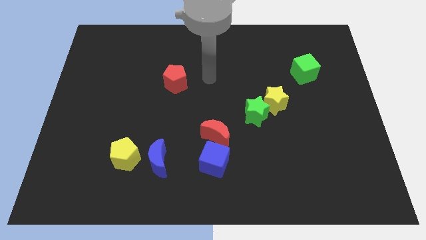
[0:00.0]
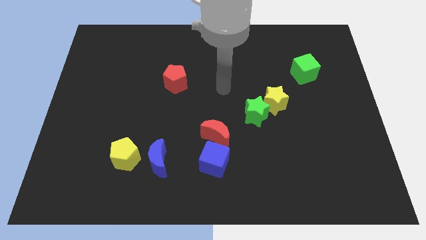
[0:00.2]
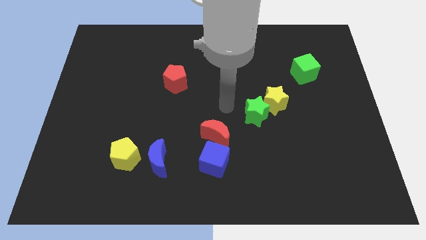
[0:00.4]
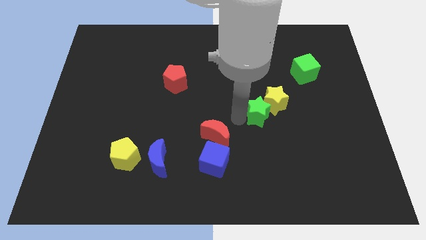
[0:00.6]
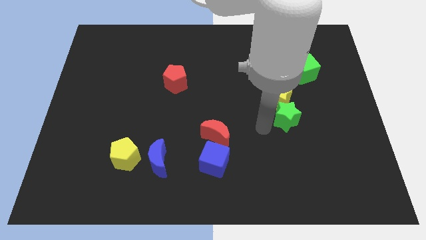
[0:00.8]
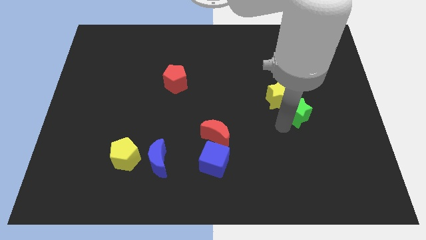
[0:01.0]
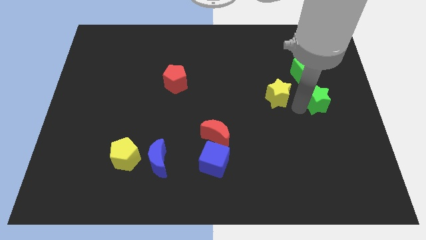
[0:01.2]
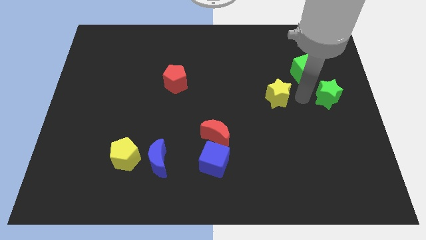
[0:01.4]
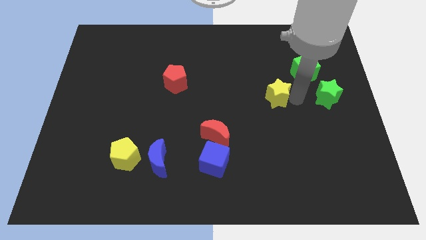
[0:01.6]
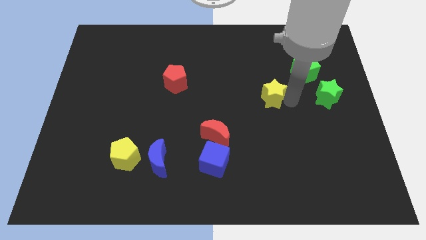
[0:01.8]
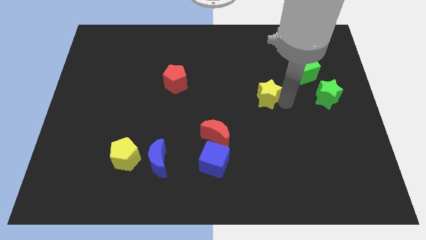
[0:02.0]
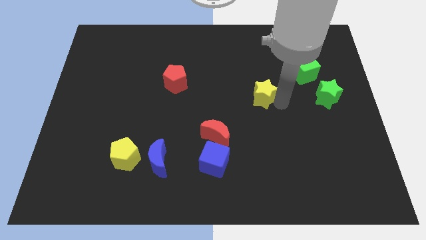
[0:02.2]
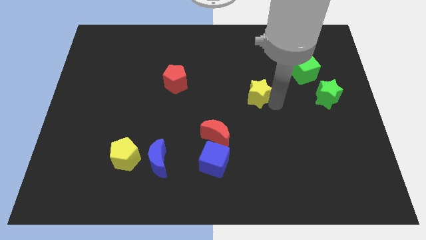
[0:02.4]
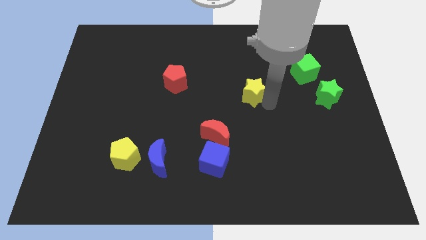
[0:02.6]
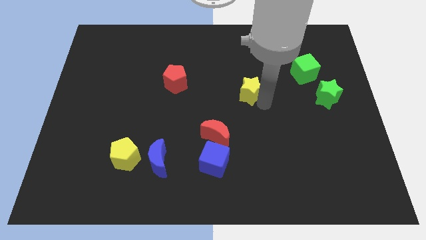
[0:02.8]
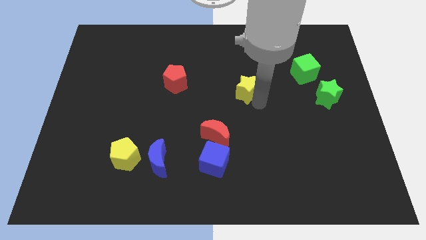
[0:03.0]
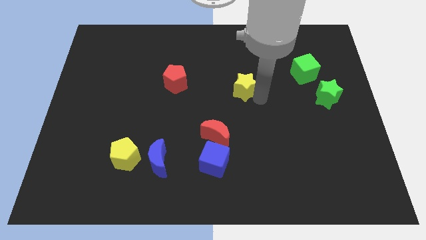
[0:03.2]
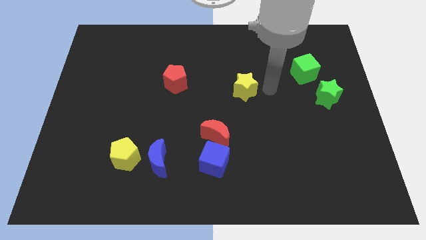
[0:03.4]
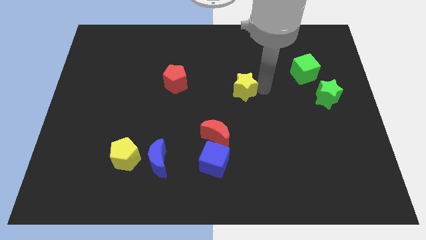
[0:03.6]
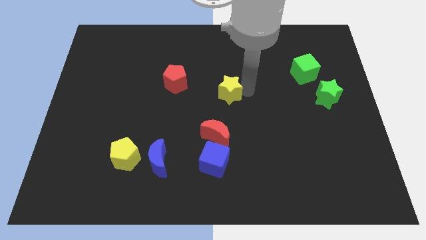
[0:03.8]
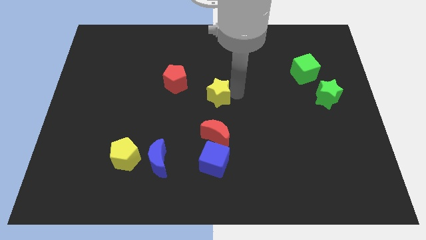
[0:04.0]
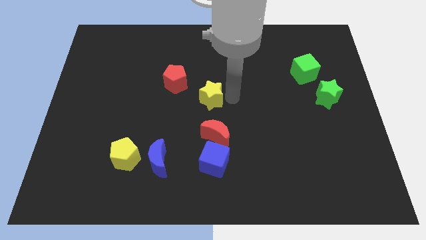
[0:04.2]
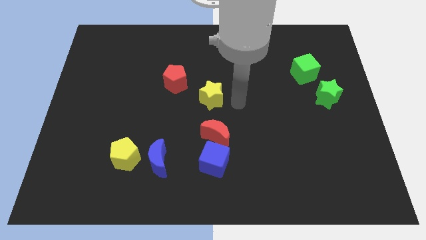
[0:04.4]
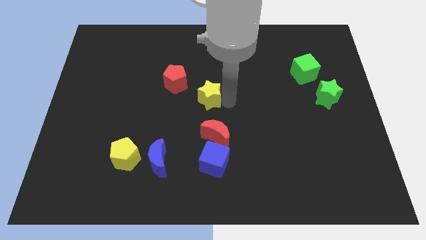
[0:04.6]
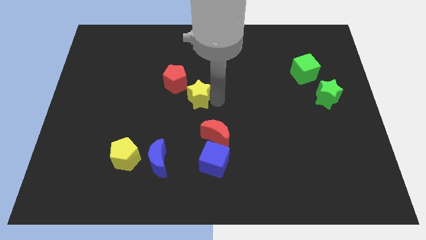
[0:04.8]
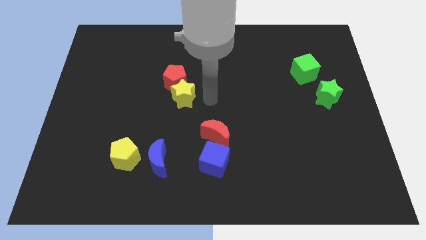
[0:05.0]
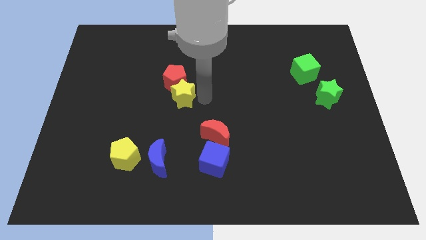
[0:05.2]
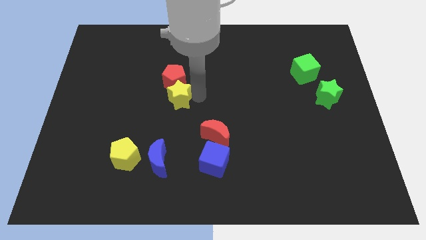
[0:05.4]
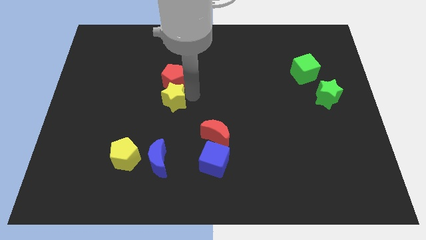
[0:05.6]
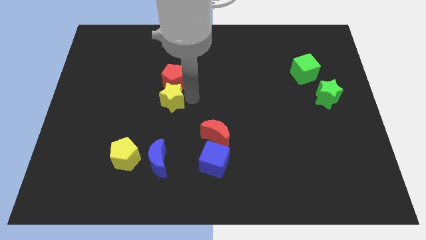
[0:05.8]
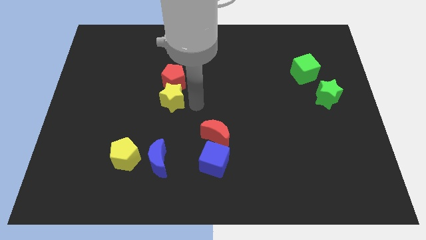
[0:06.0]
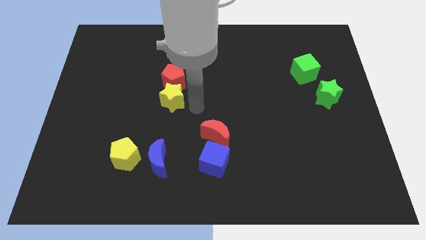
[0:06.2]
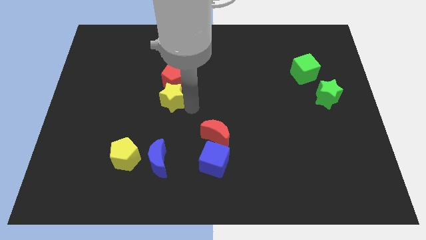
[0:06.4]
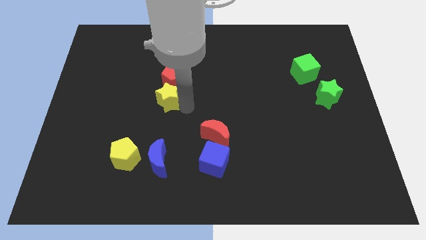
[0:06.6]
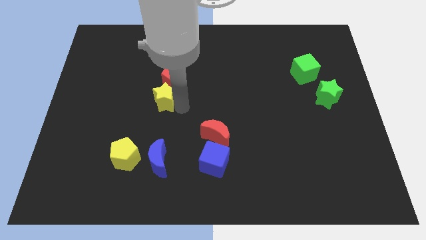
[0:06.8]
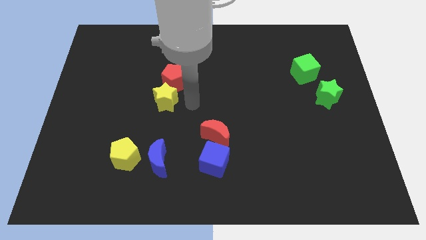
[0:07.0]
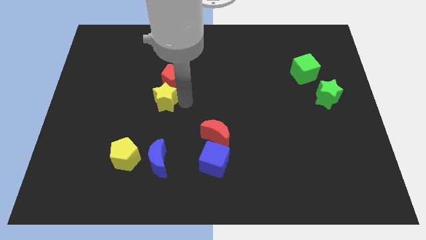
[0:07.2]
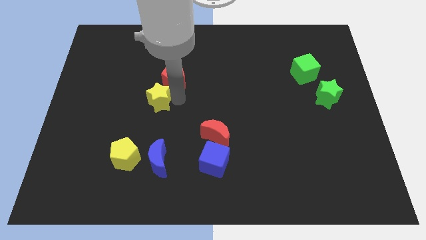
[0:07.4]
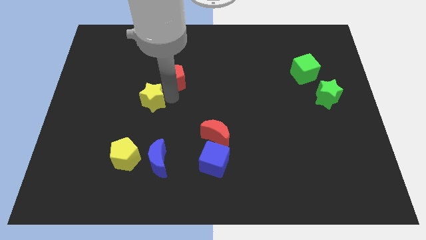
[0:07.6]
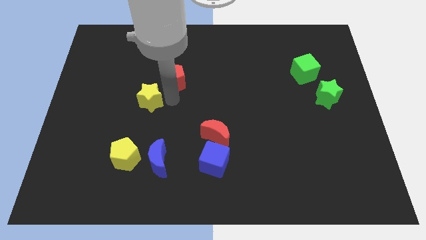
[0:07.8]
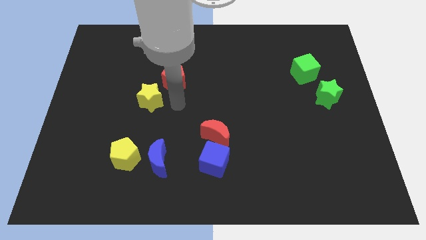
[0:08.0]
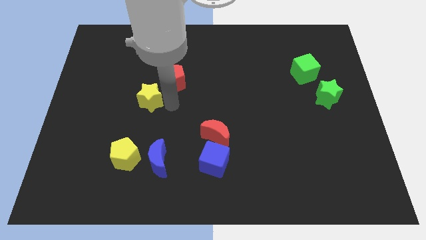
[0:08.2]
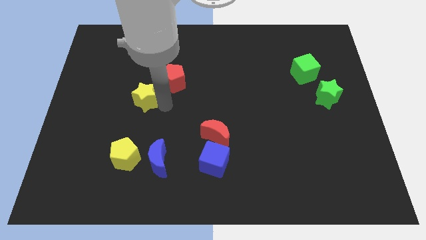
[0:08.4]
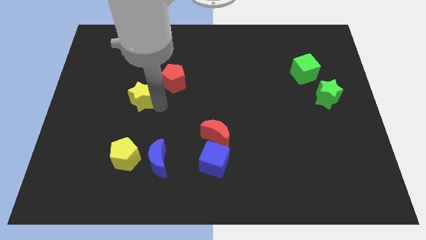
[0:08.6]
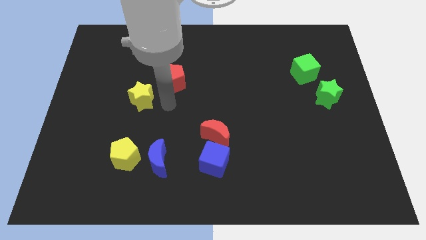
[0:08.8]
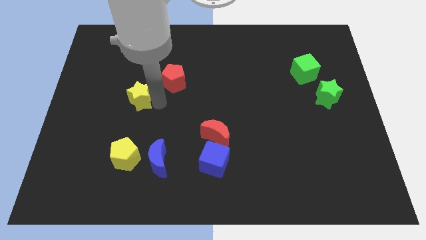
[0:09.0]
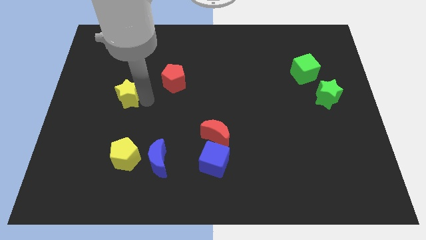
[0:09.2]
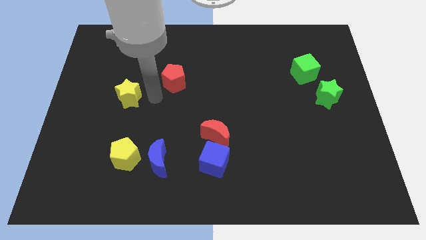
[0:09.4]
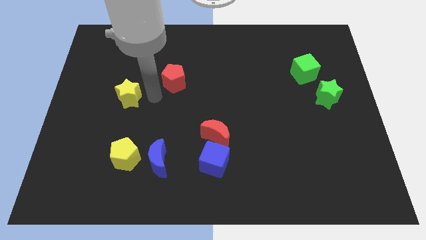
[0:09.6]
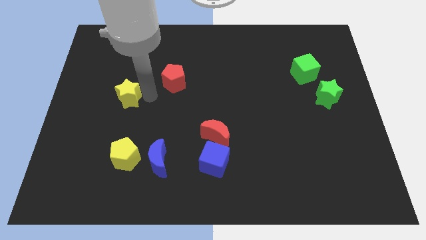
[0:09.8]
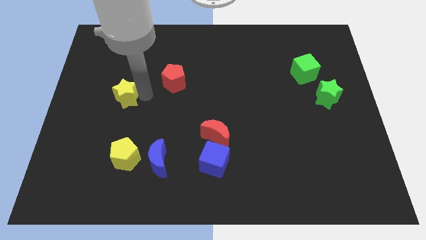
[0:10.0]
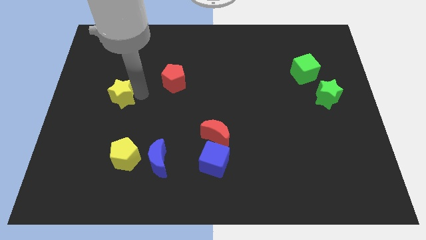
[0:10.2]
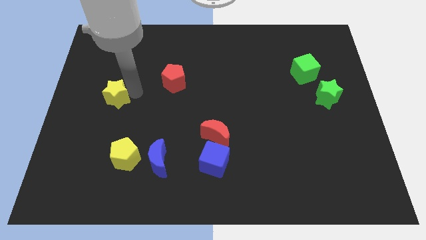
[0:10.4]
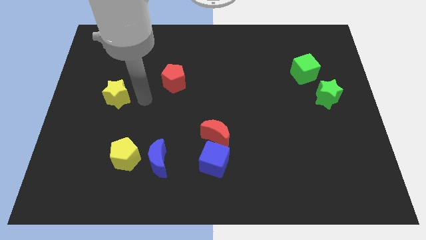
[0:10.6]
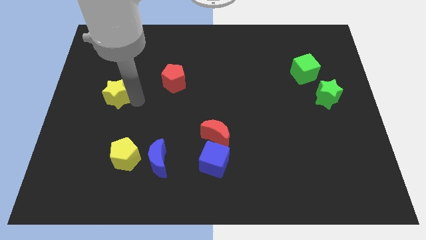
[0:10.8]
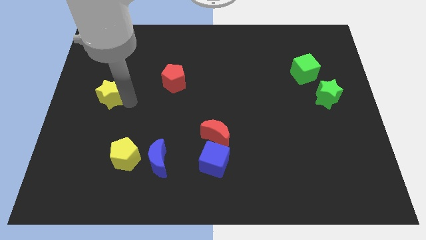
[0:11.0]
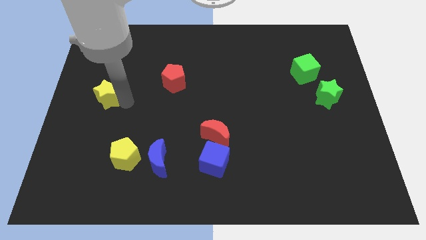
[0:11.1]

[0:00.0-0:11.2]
push the yellow star to the center left

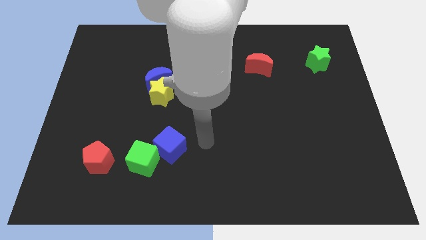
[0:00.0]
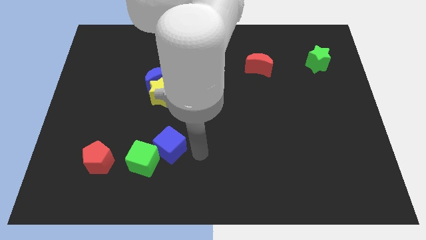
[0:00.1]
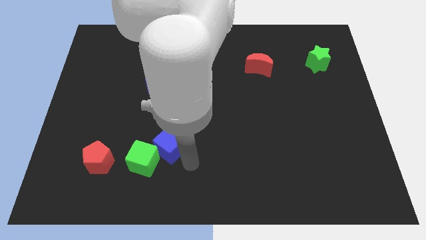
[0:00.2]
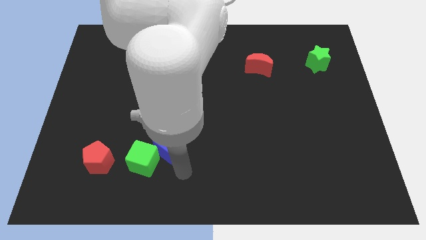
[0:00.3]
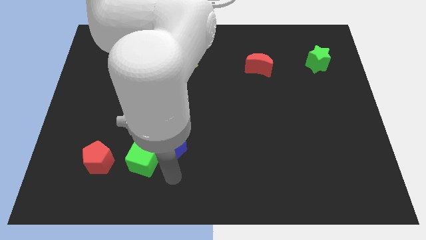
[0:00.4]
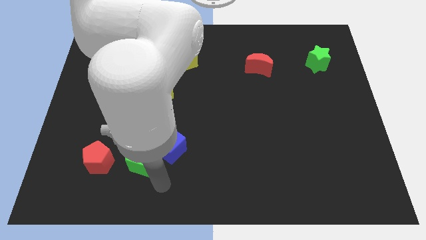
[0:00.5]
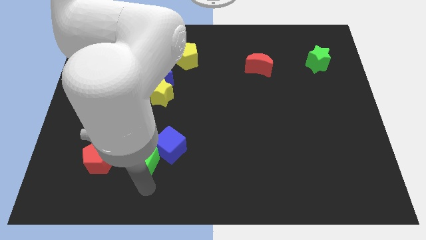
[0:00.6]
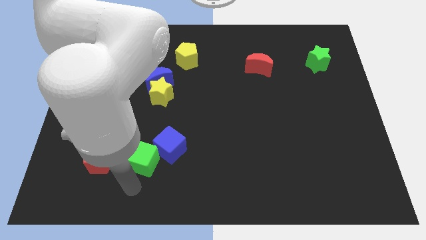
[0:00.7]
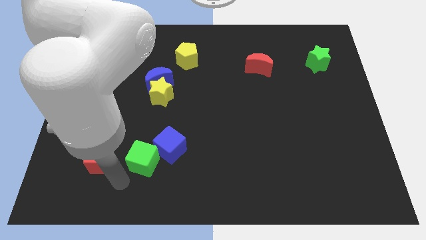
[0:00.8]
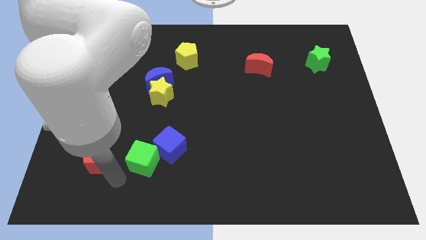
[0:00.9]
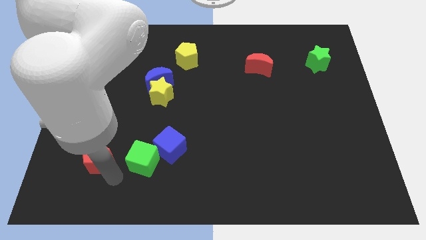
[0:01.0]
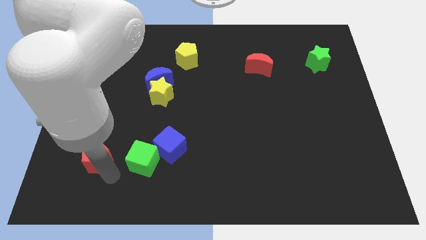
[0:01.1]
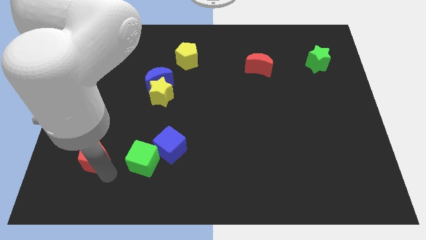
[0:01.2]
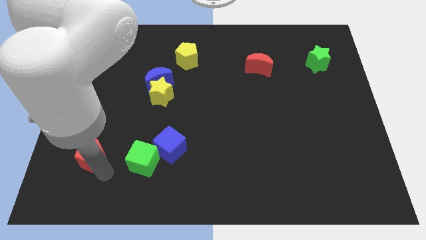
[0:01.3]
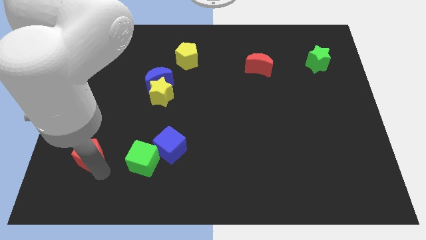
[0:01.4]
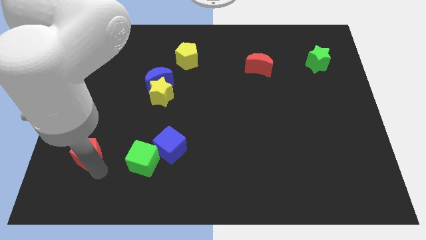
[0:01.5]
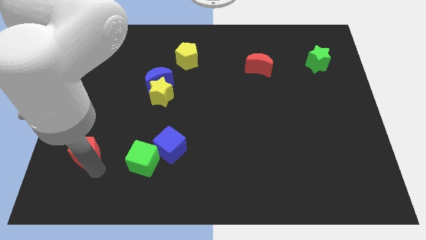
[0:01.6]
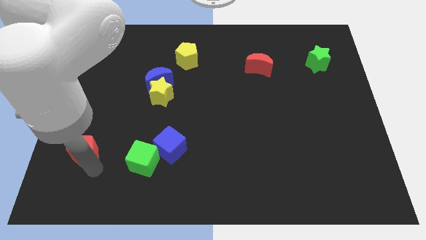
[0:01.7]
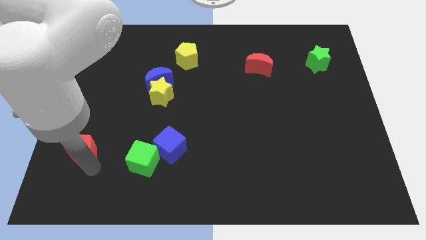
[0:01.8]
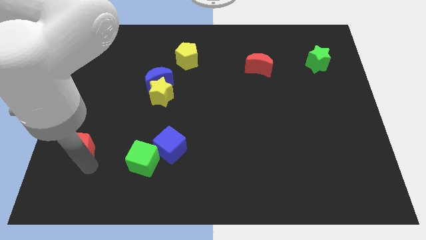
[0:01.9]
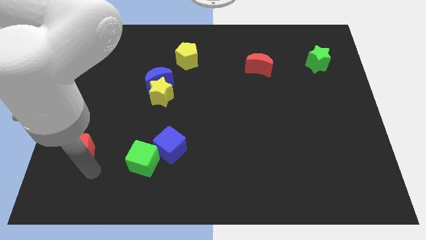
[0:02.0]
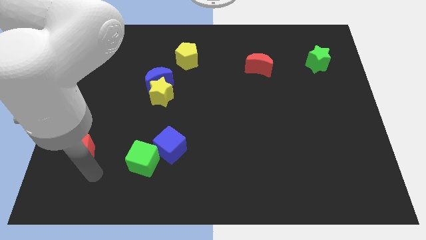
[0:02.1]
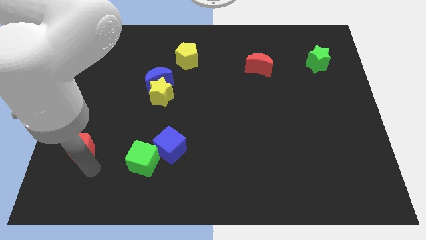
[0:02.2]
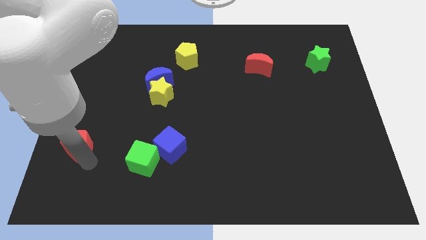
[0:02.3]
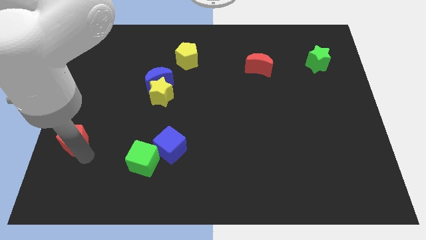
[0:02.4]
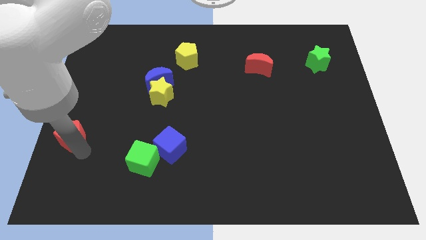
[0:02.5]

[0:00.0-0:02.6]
push the red pentagon to the left side of the board
